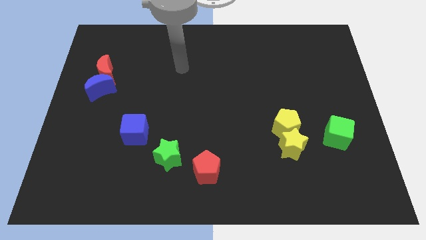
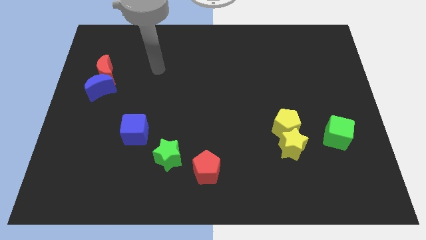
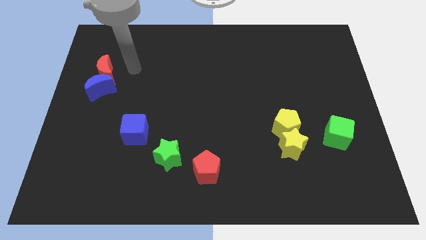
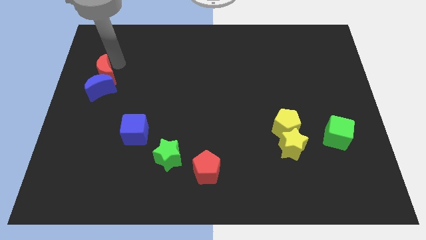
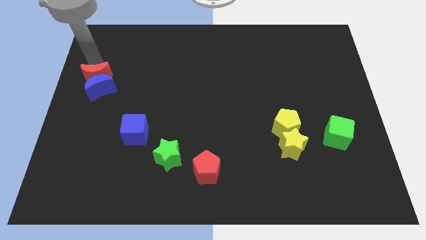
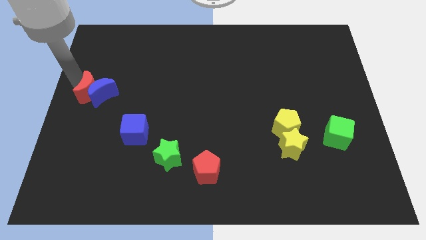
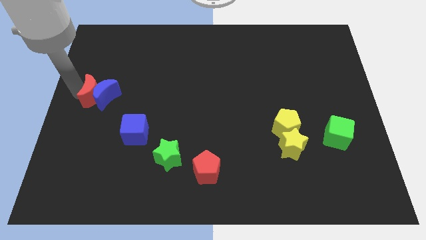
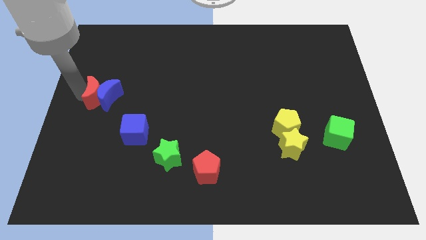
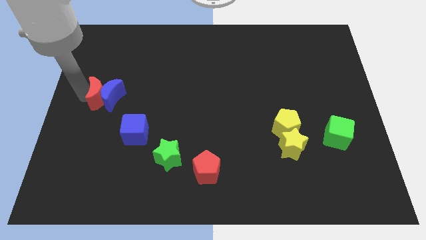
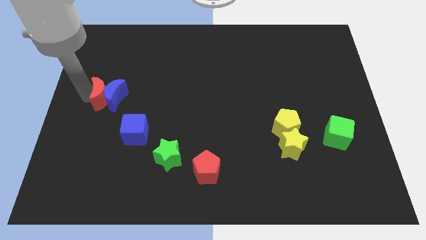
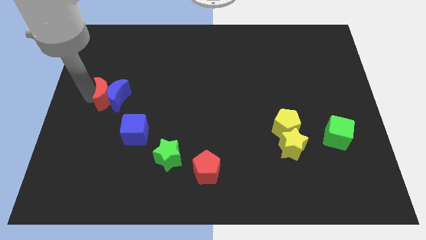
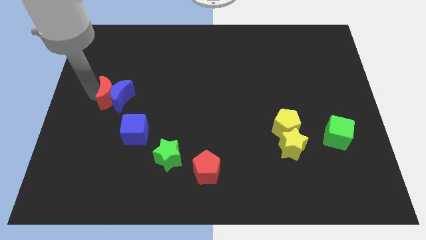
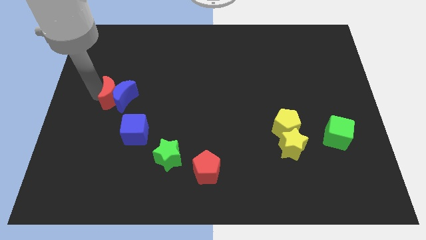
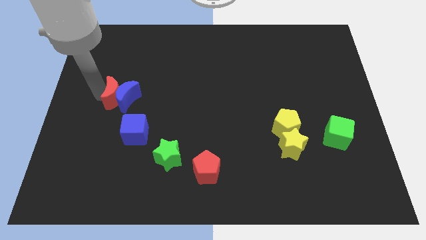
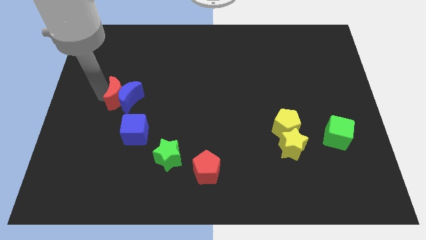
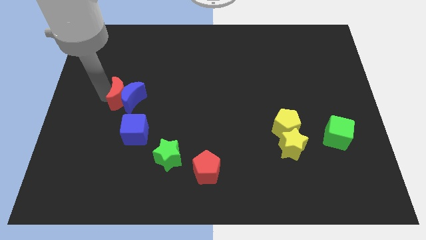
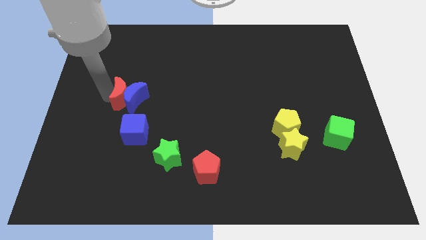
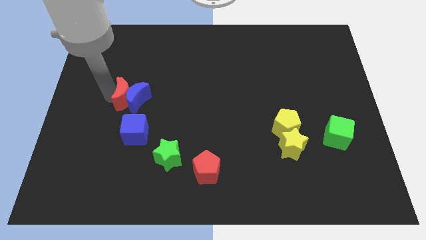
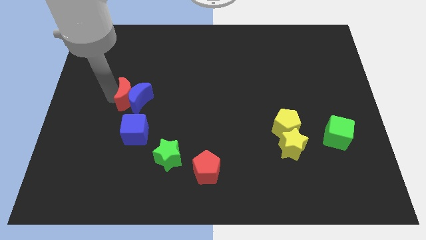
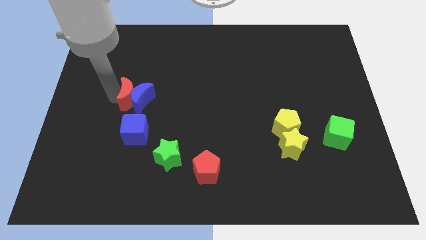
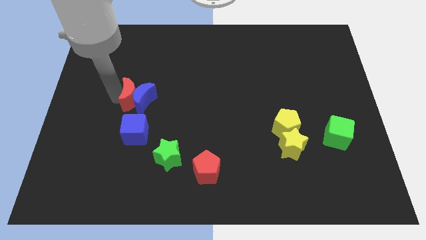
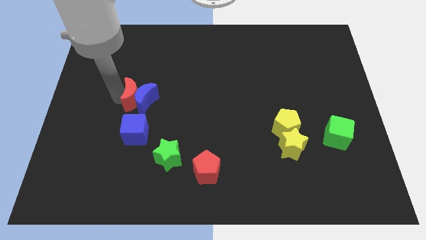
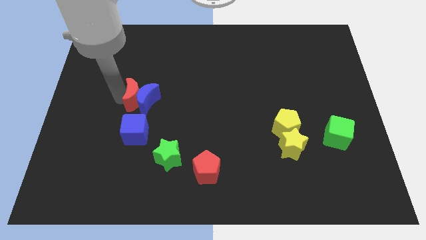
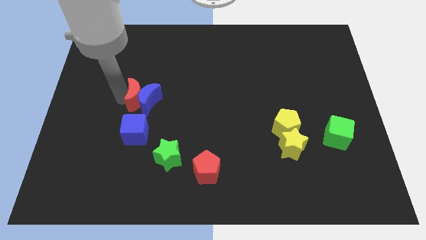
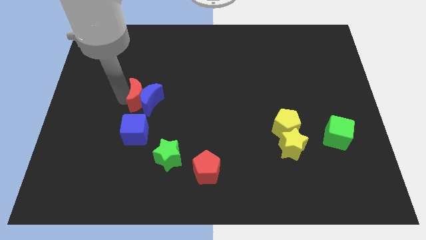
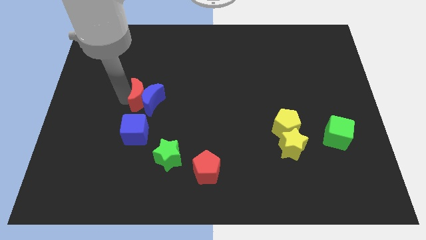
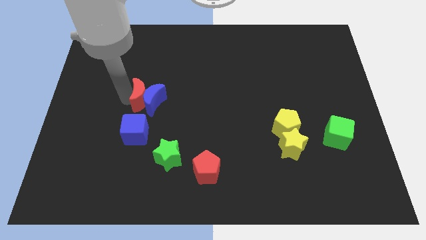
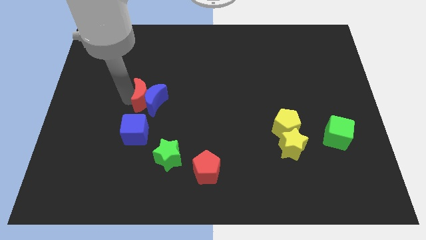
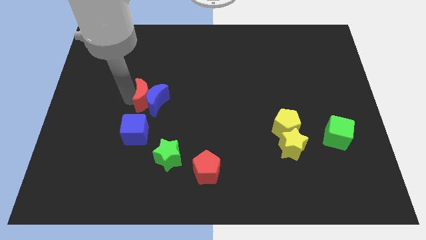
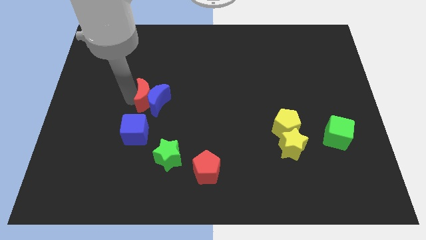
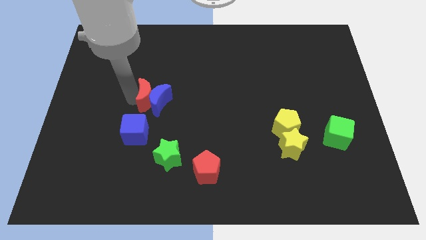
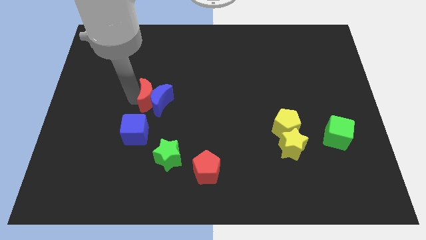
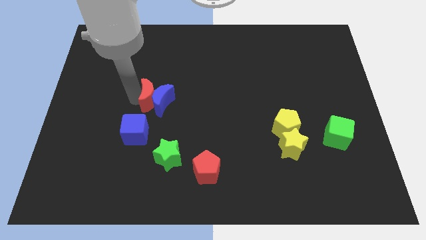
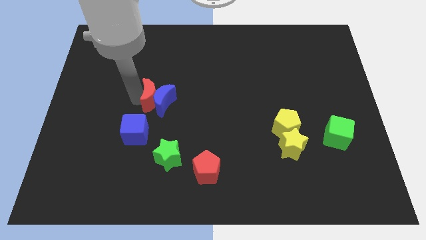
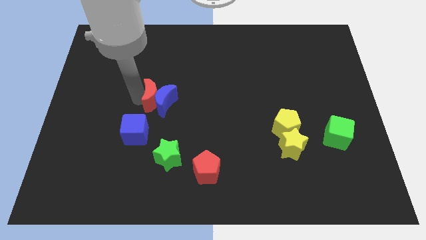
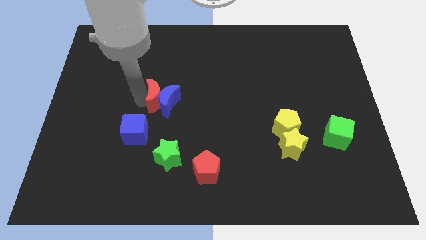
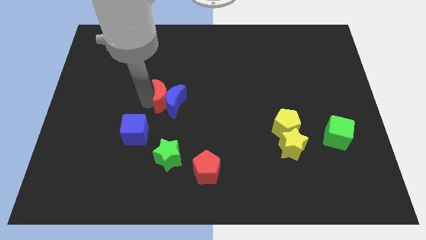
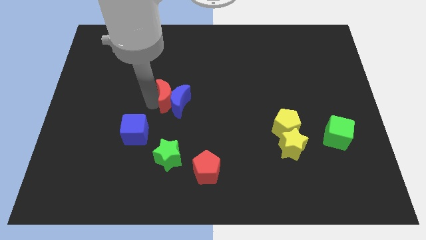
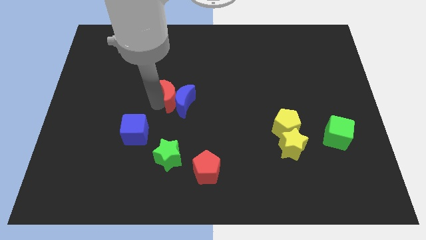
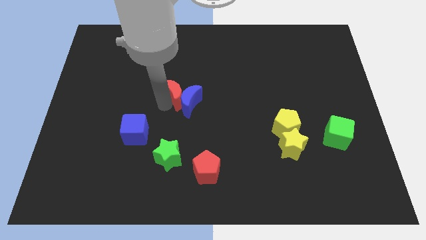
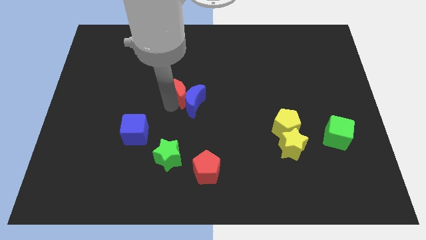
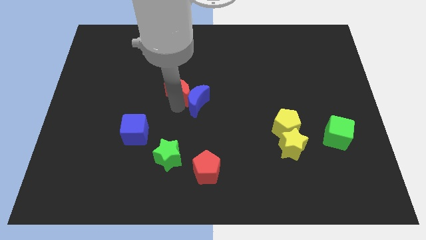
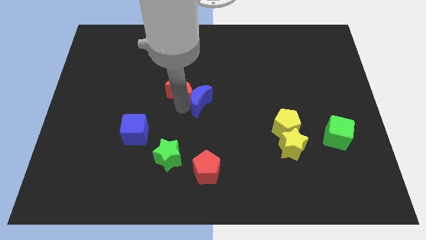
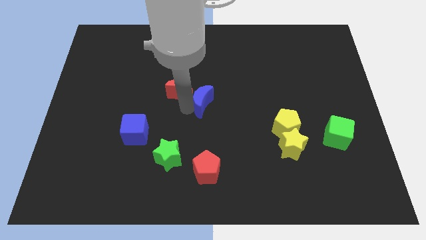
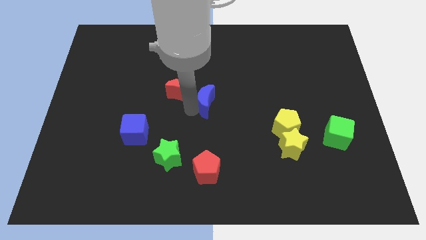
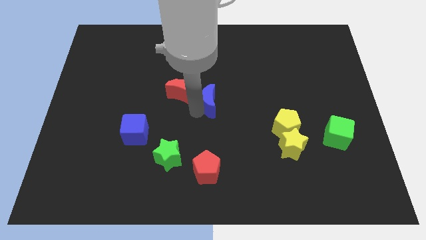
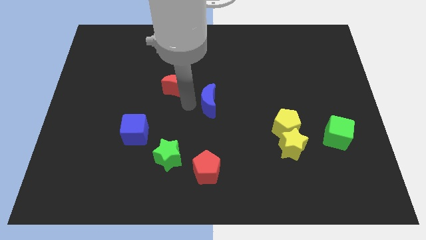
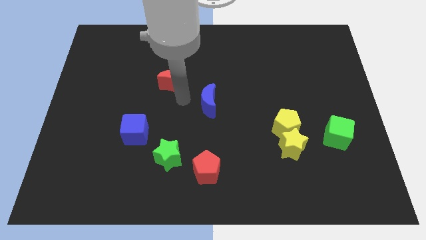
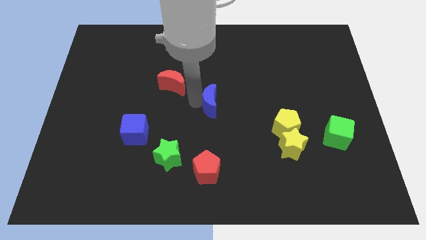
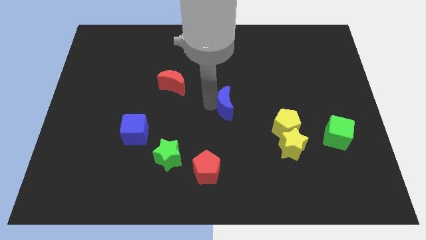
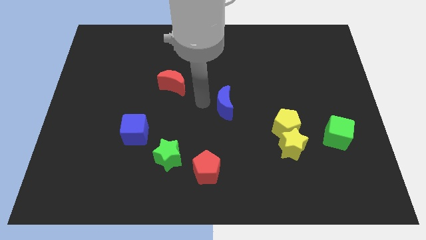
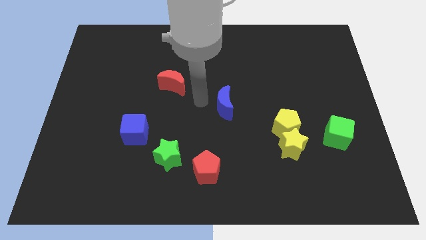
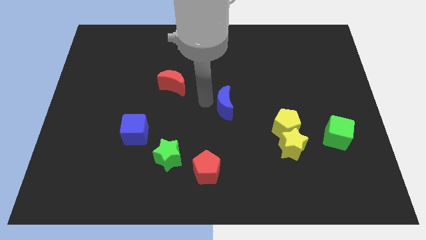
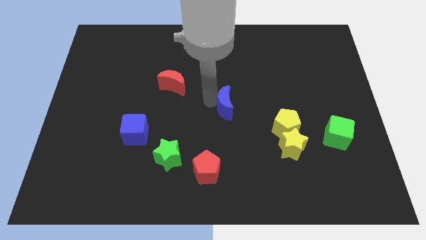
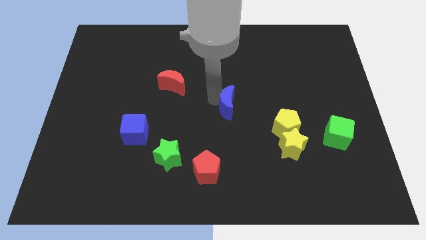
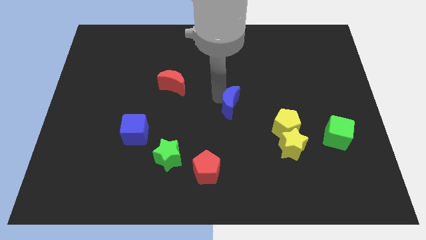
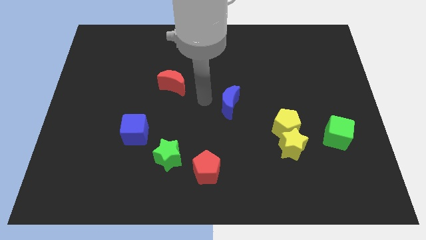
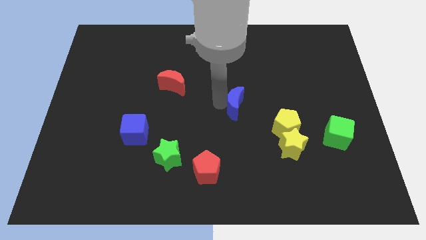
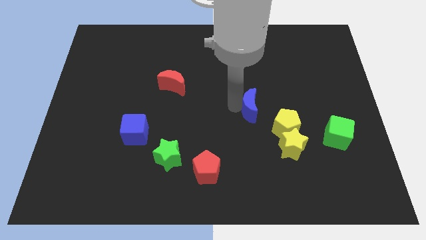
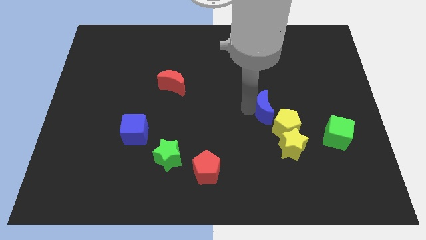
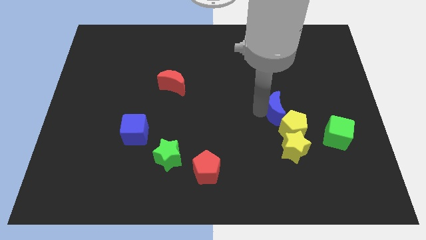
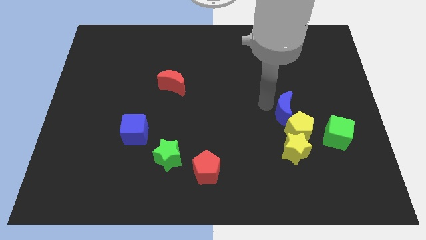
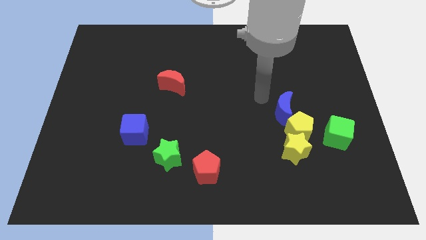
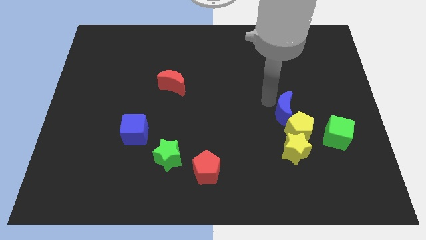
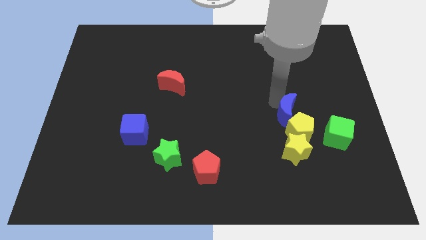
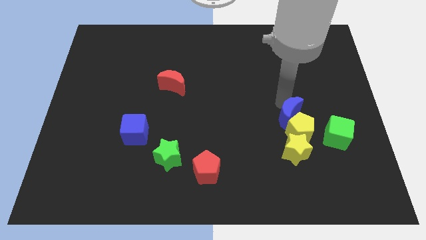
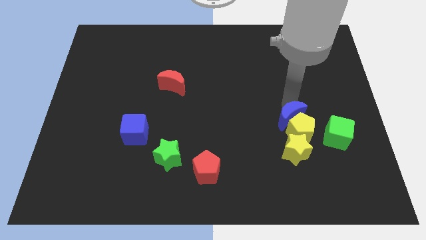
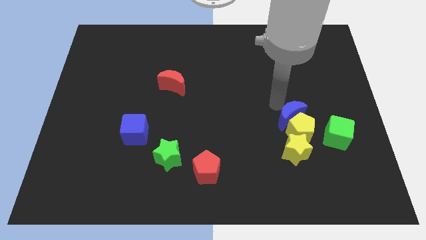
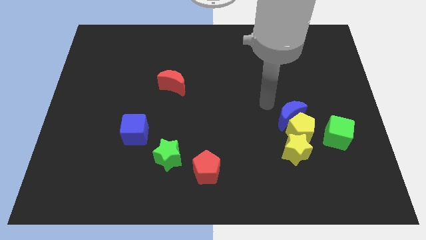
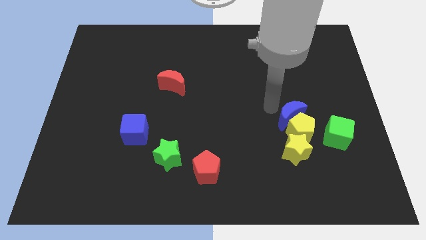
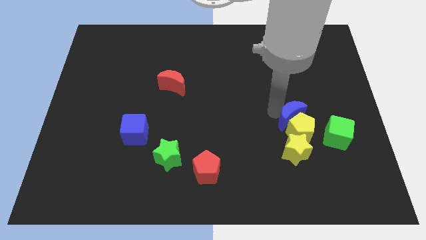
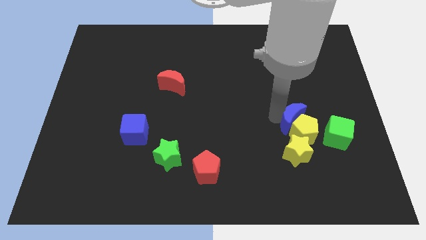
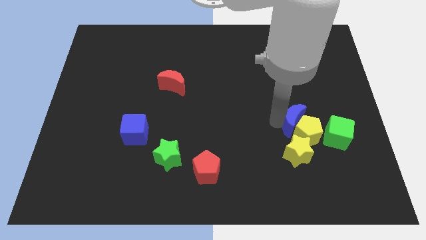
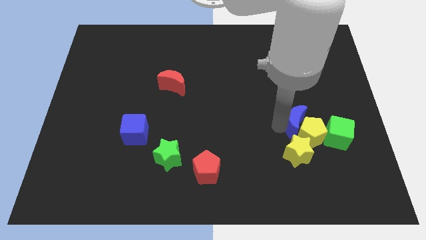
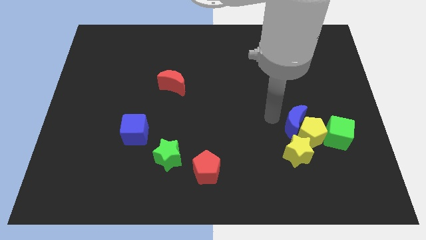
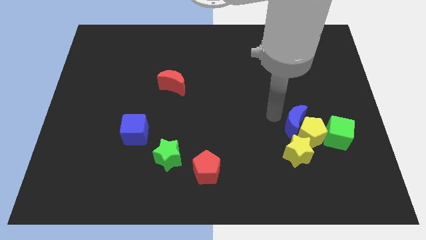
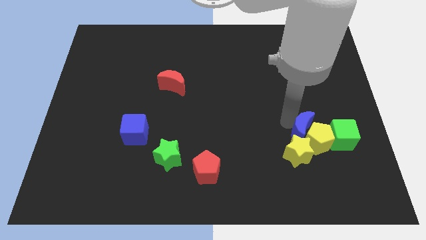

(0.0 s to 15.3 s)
push the blue moon diagonally up and to the right of the yellow star

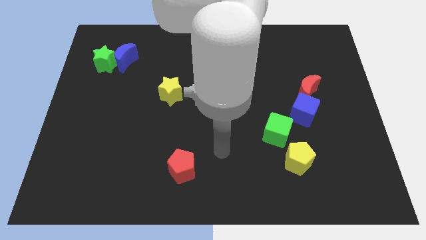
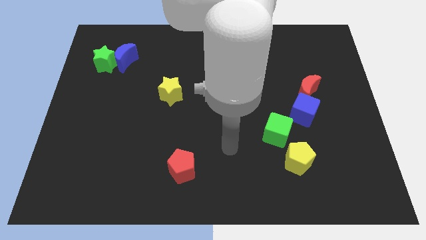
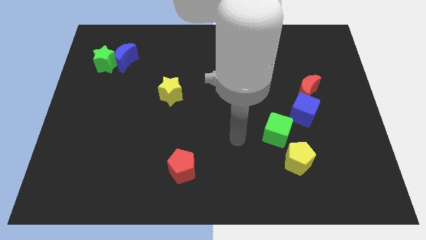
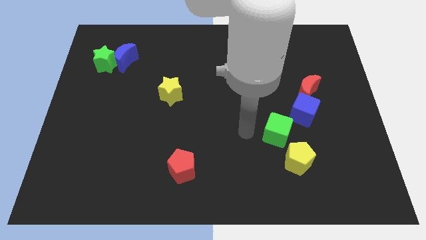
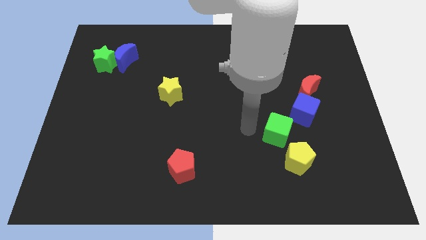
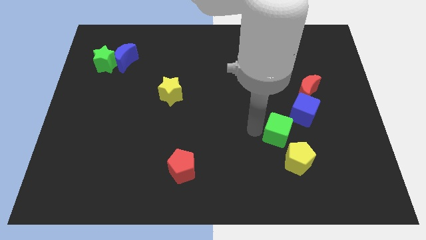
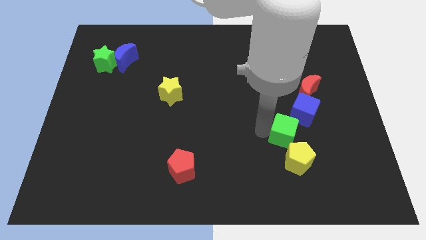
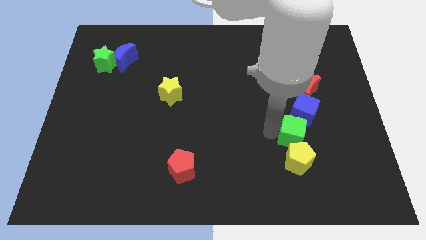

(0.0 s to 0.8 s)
move the green cube to the bottom side of the blue cube
